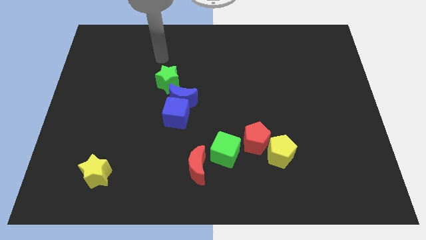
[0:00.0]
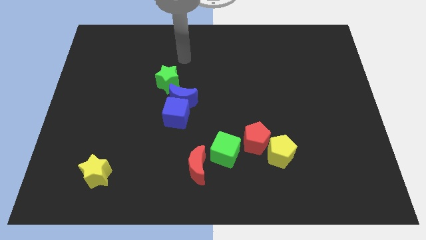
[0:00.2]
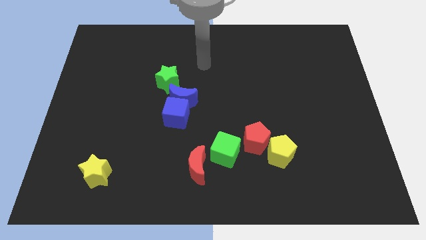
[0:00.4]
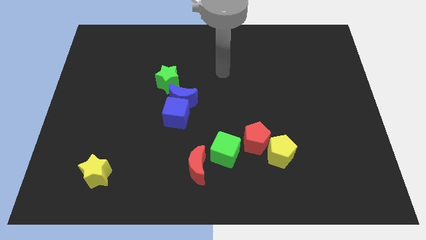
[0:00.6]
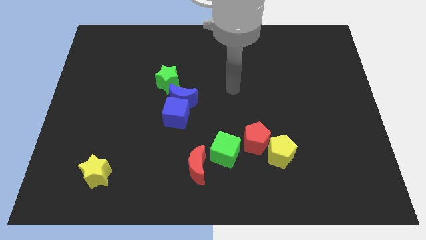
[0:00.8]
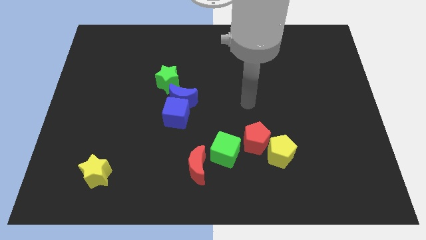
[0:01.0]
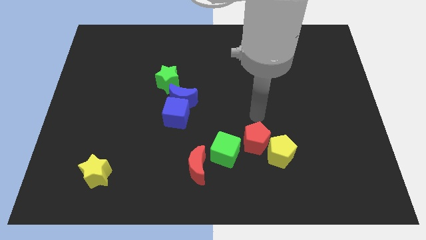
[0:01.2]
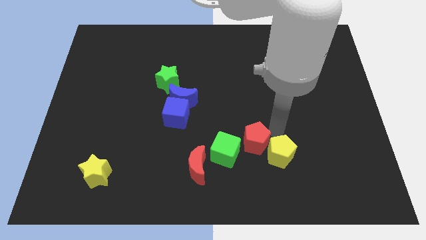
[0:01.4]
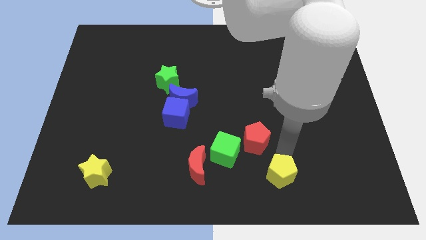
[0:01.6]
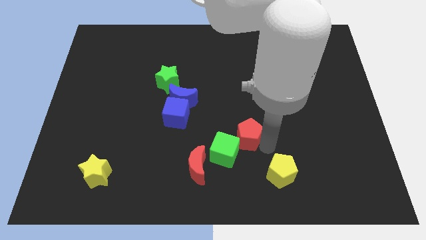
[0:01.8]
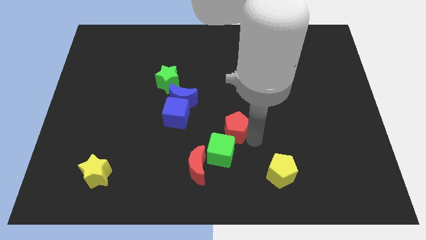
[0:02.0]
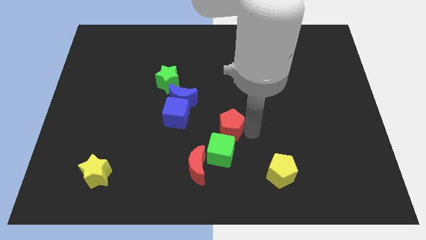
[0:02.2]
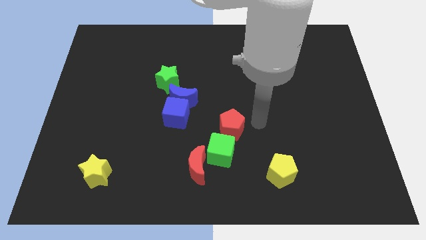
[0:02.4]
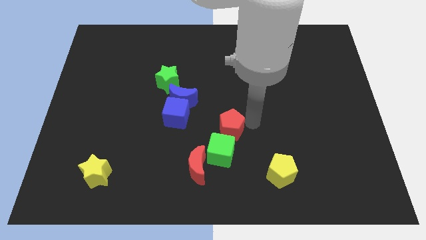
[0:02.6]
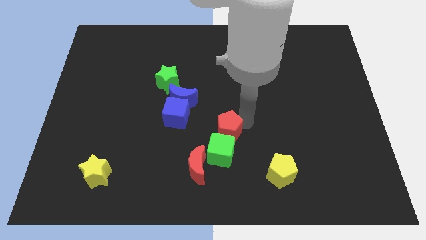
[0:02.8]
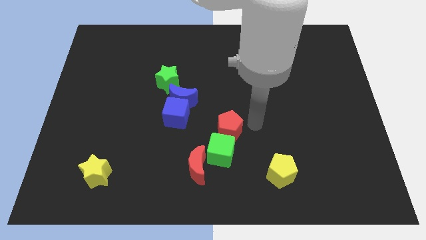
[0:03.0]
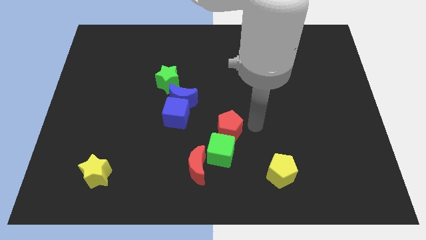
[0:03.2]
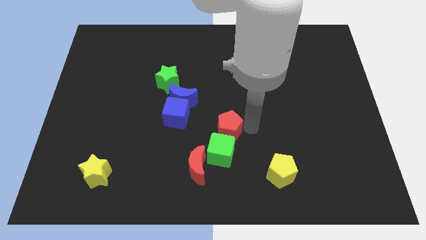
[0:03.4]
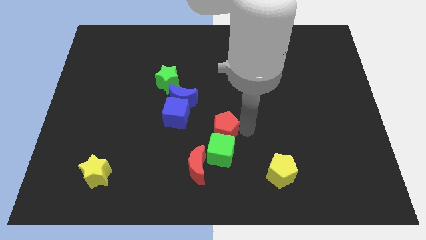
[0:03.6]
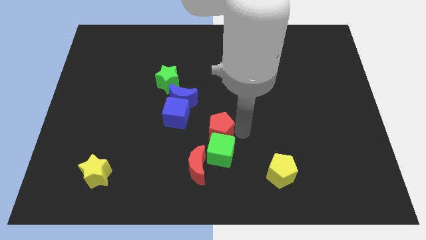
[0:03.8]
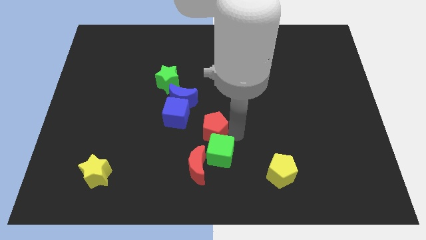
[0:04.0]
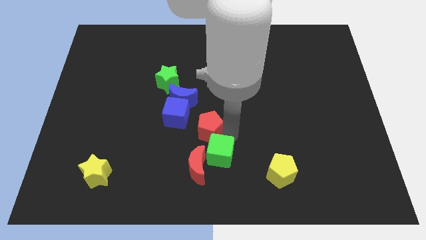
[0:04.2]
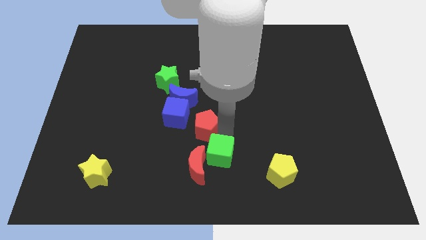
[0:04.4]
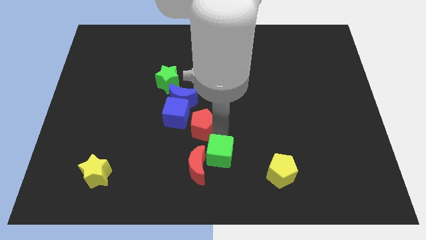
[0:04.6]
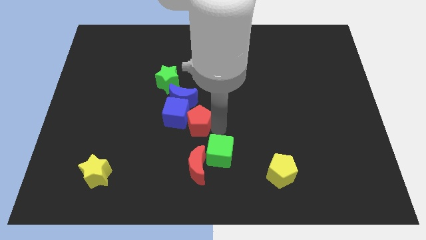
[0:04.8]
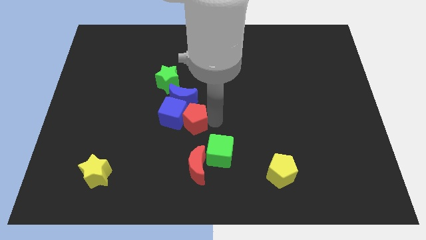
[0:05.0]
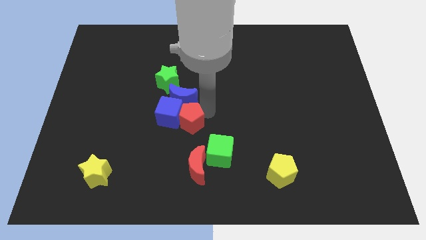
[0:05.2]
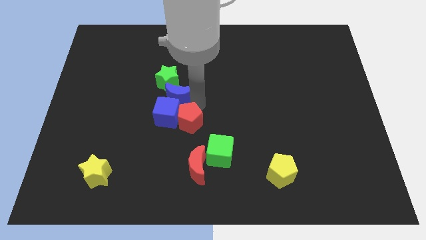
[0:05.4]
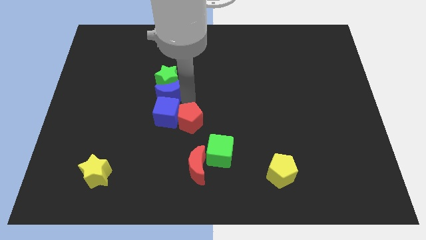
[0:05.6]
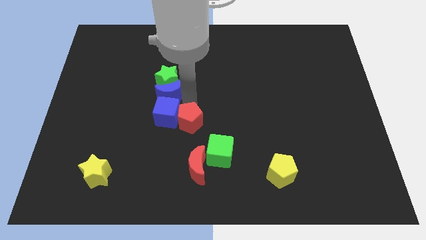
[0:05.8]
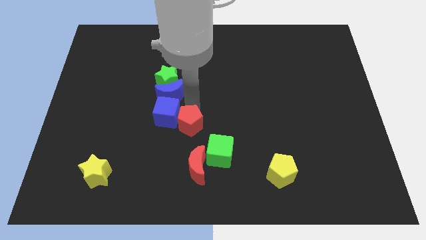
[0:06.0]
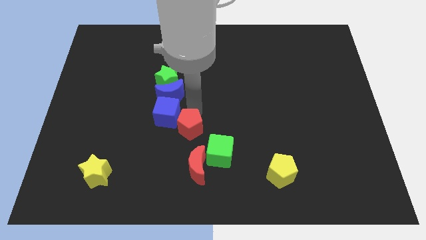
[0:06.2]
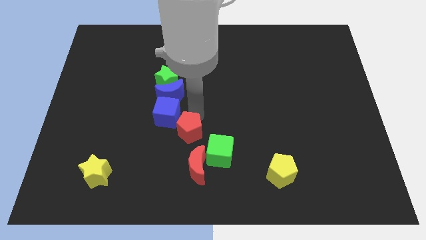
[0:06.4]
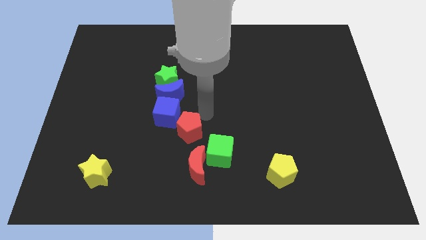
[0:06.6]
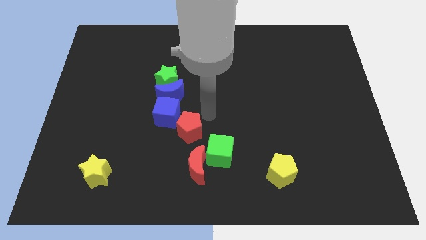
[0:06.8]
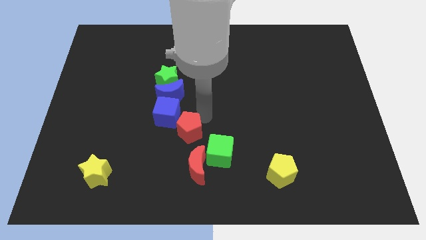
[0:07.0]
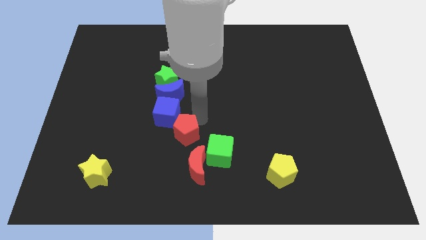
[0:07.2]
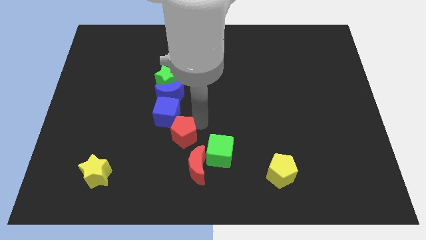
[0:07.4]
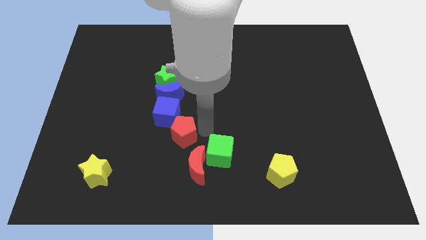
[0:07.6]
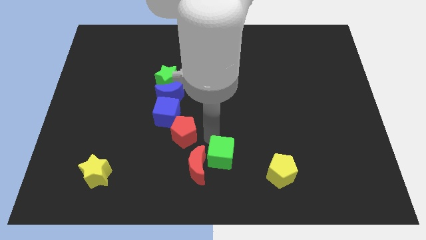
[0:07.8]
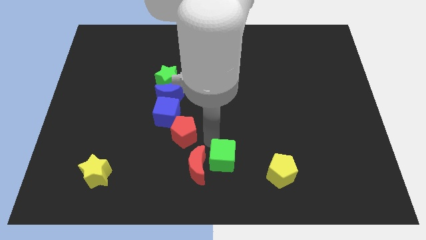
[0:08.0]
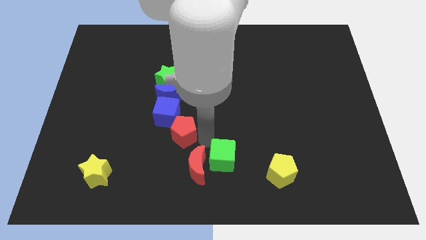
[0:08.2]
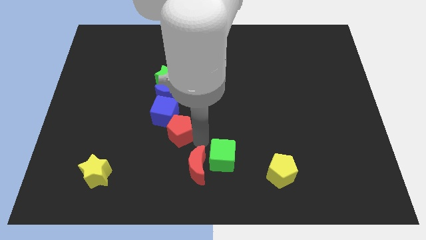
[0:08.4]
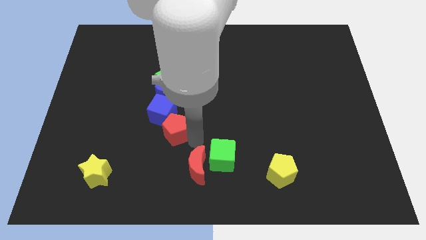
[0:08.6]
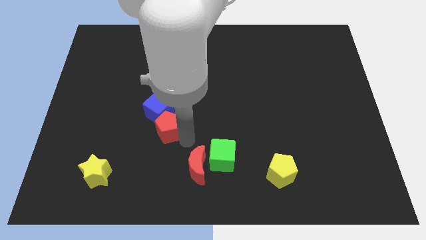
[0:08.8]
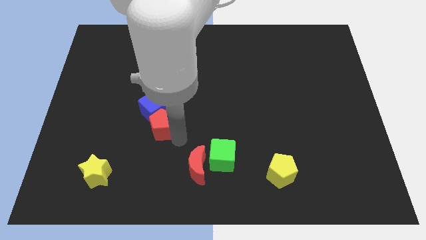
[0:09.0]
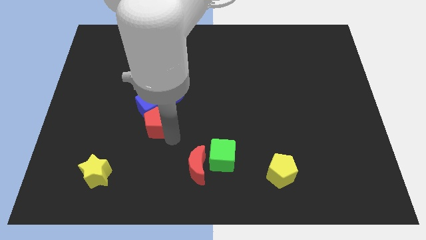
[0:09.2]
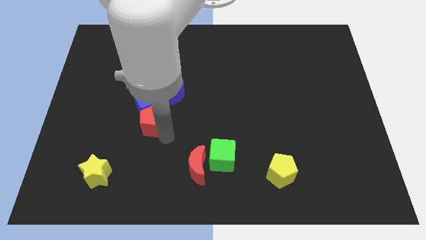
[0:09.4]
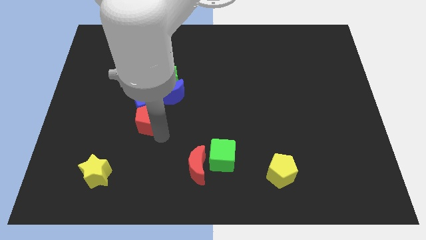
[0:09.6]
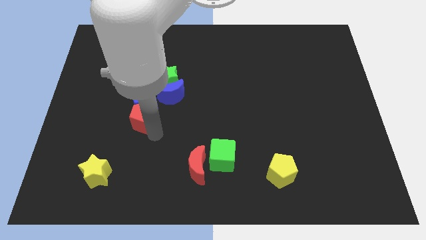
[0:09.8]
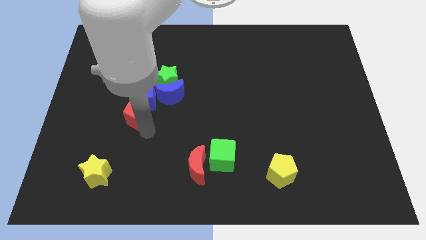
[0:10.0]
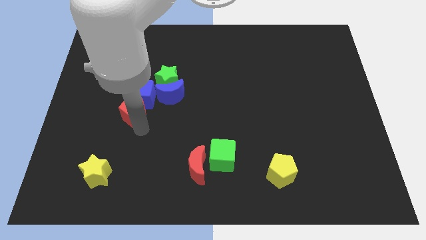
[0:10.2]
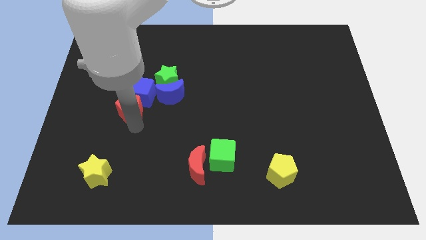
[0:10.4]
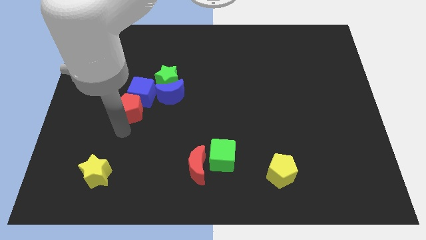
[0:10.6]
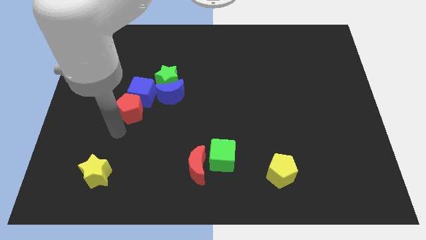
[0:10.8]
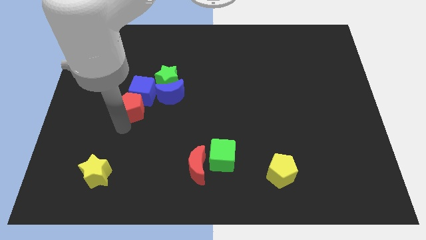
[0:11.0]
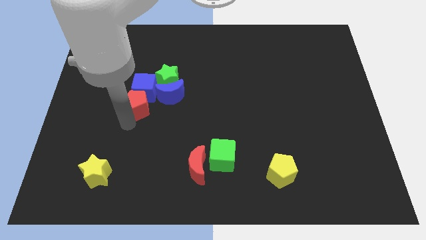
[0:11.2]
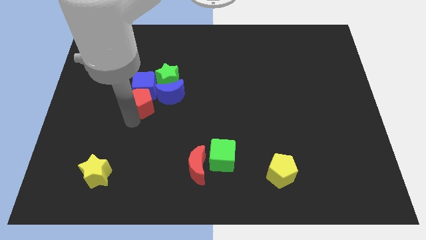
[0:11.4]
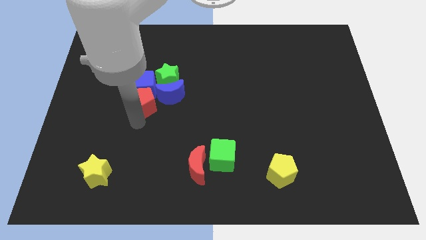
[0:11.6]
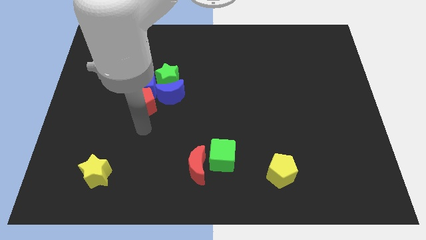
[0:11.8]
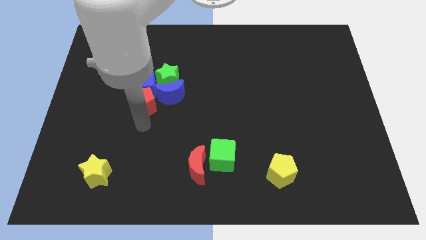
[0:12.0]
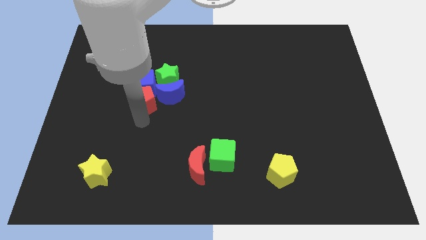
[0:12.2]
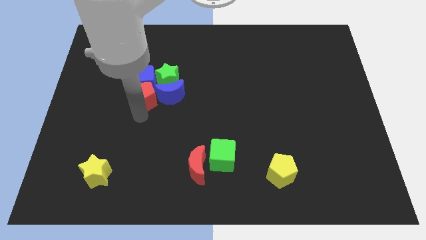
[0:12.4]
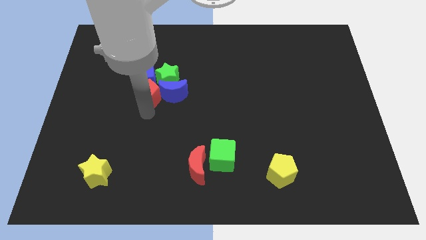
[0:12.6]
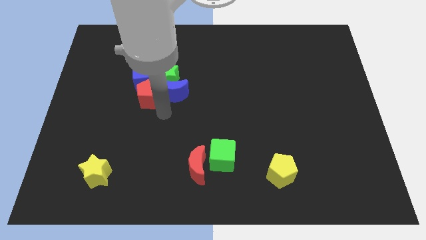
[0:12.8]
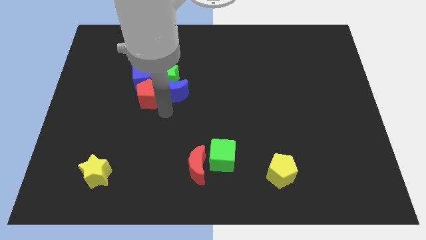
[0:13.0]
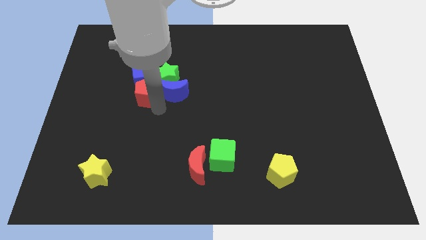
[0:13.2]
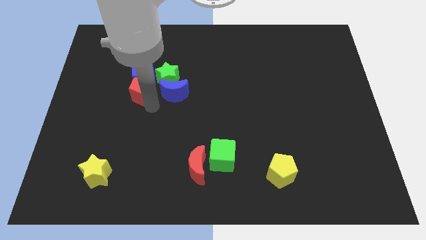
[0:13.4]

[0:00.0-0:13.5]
put the red pentagon left of the green star
